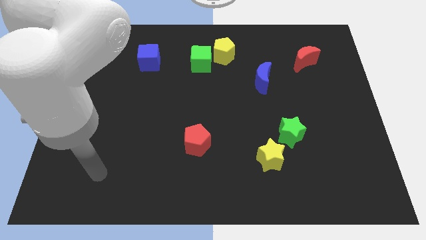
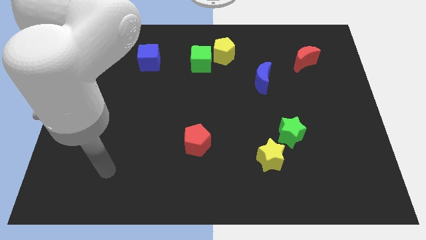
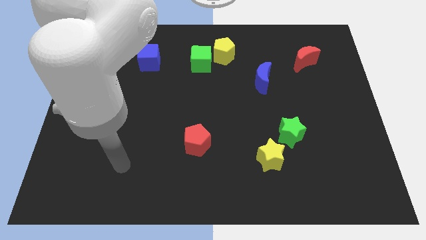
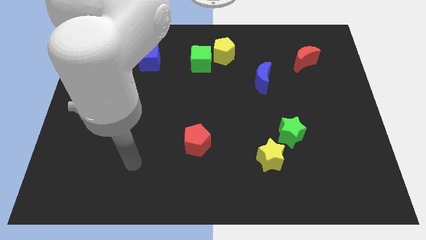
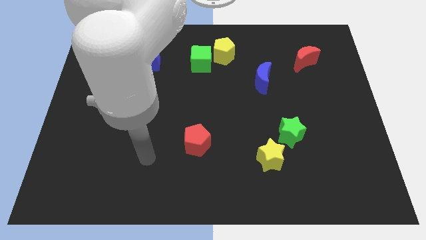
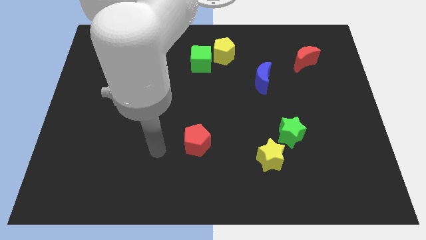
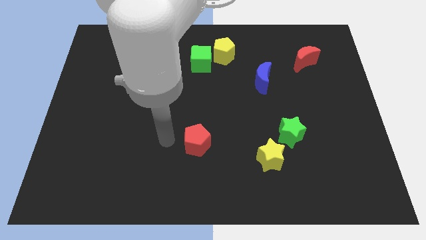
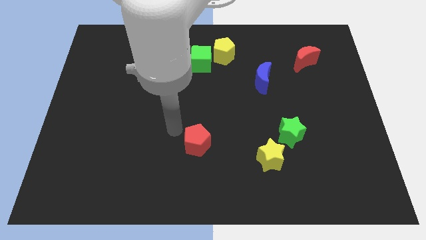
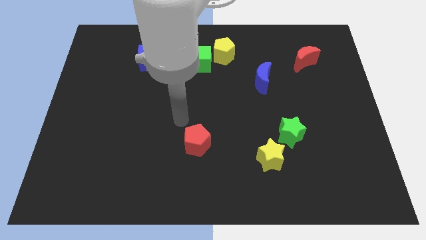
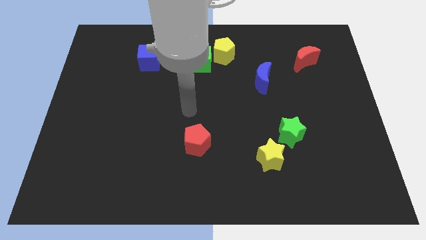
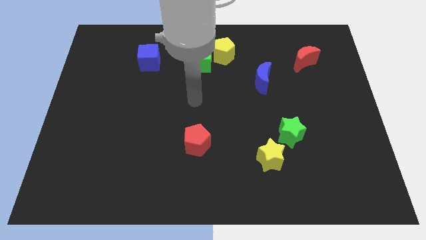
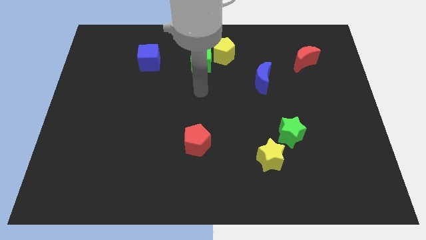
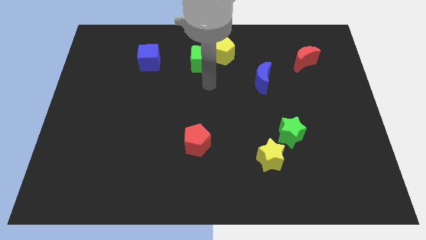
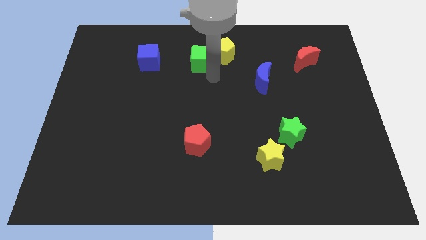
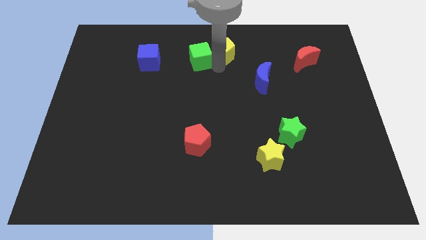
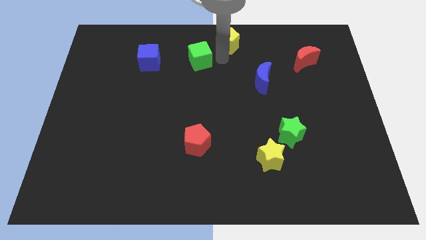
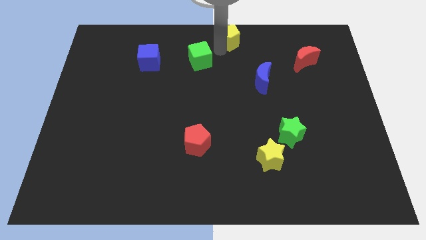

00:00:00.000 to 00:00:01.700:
pull the green cube apart from the yellow pentagon

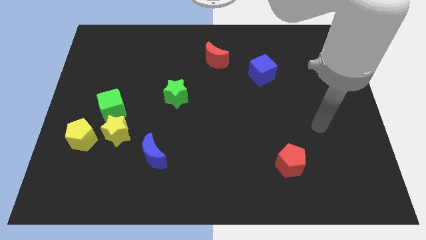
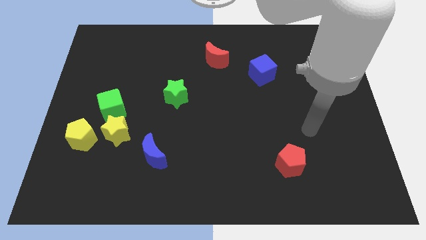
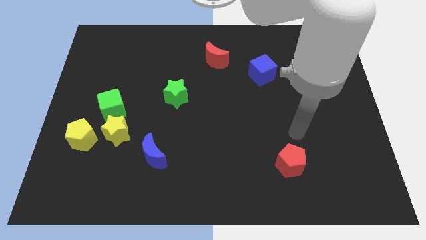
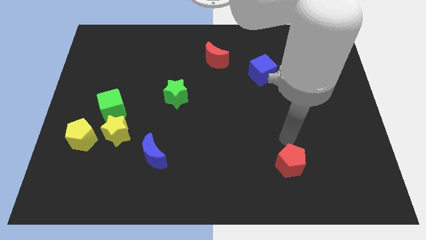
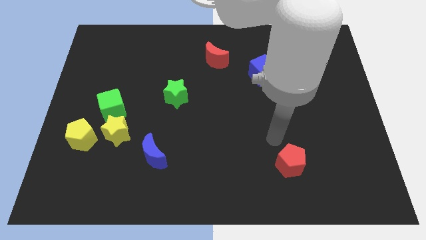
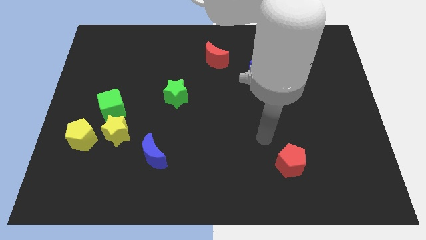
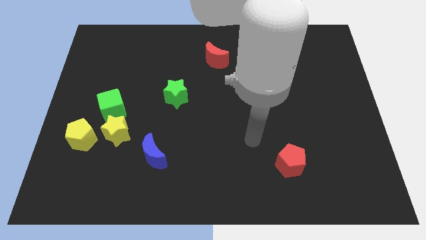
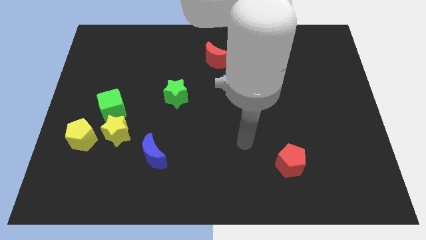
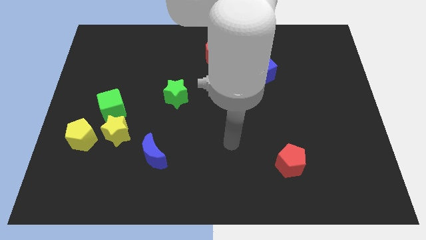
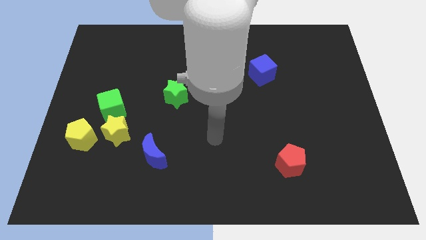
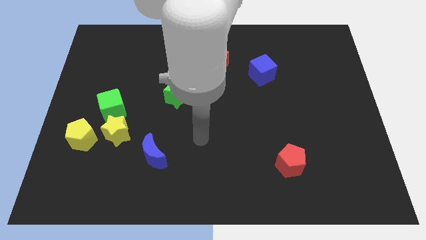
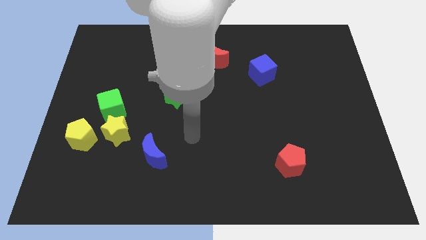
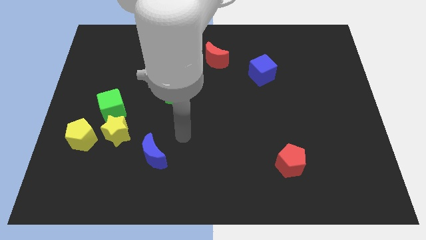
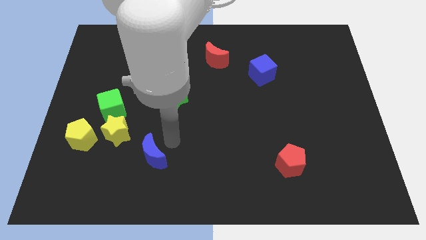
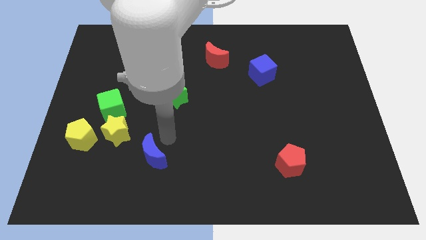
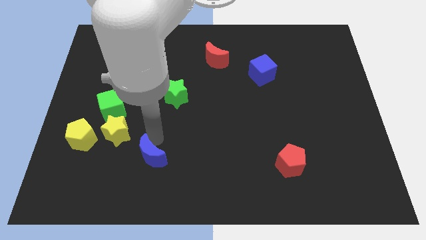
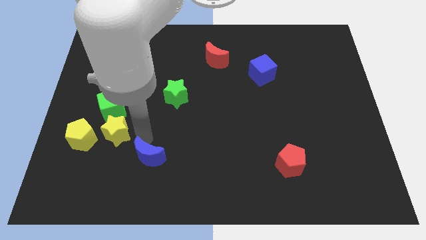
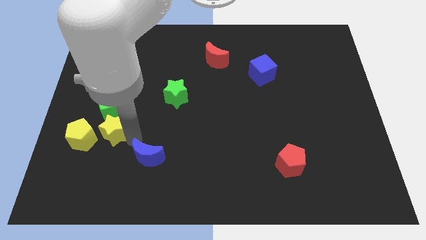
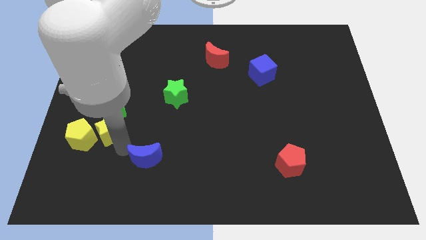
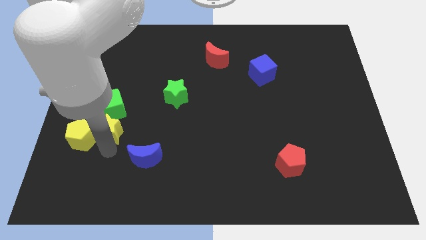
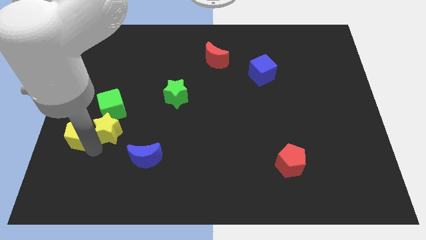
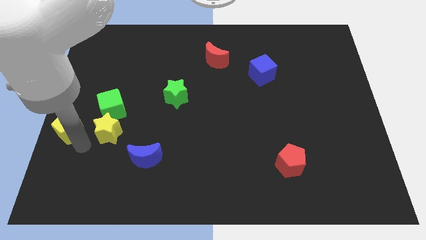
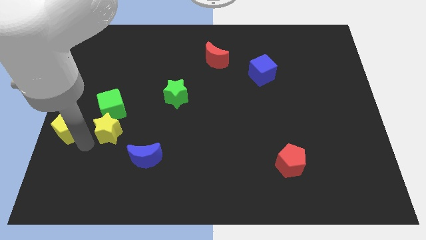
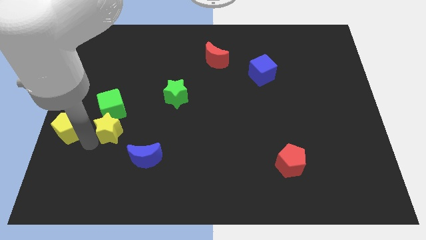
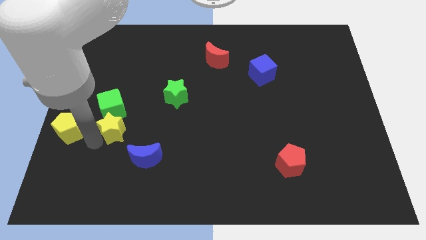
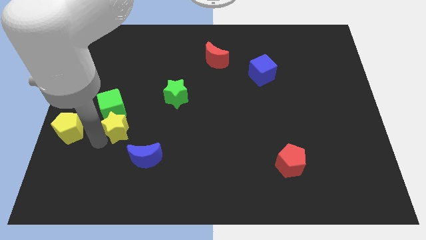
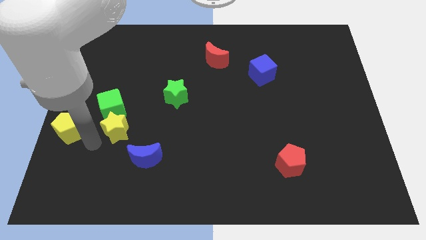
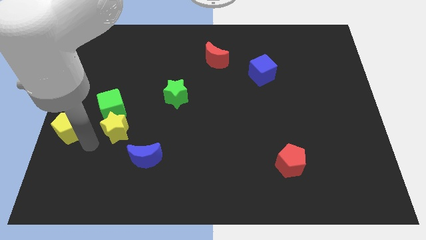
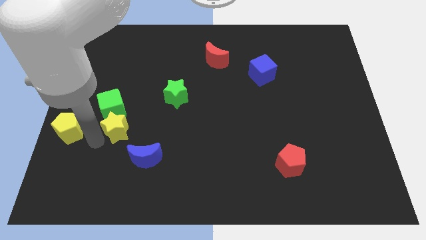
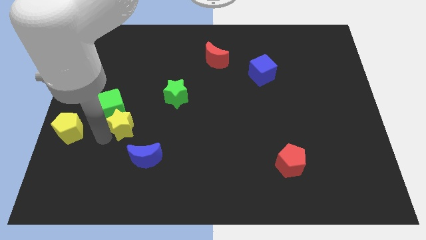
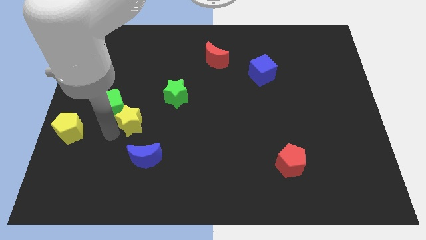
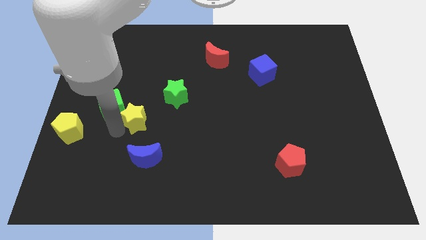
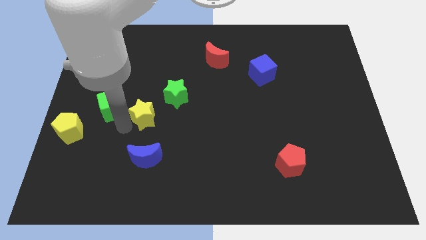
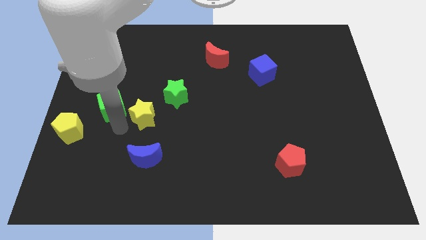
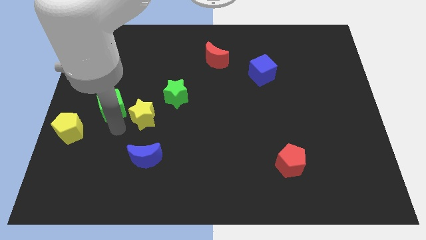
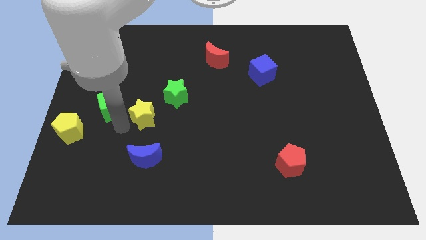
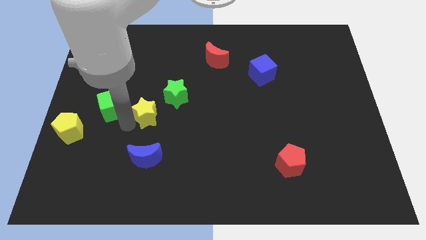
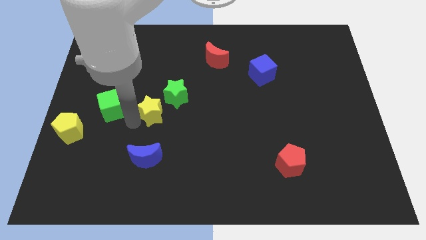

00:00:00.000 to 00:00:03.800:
move the yellow star away from the group

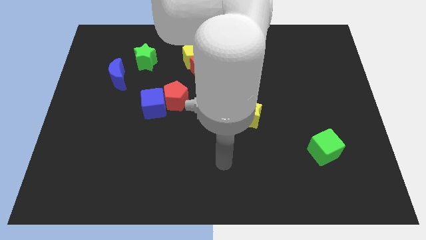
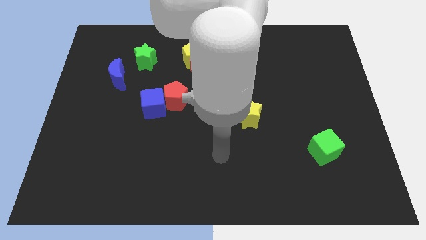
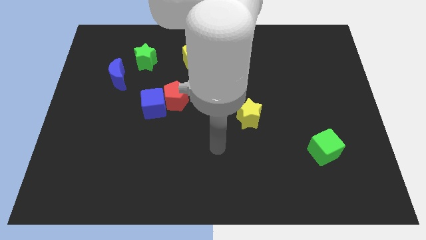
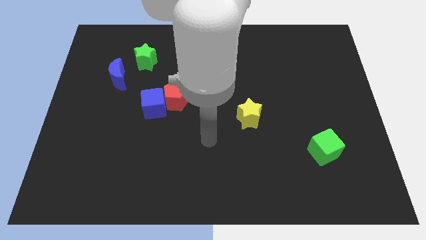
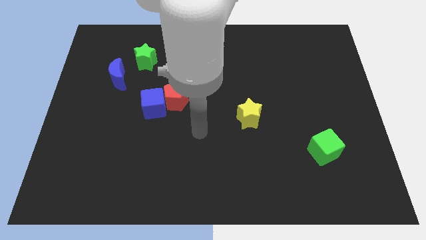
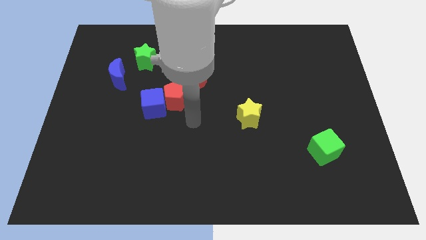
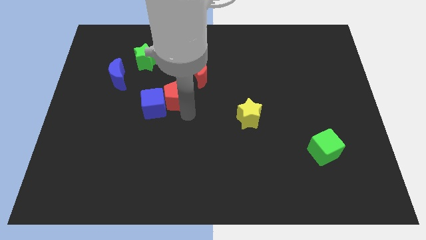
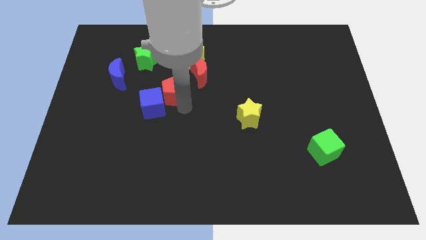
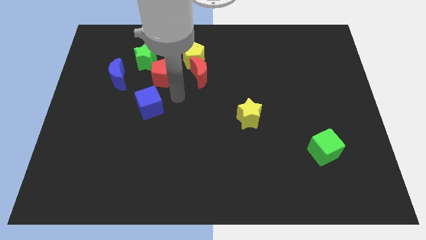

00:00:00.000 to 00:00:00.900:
separate the blue cube from the red pentagon

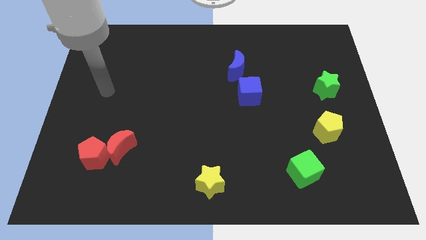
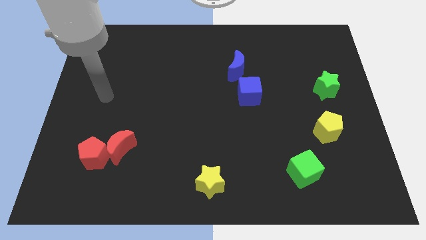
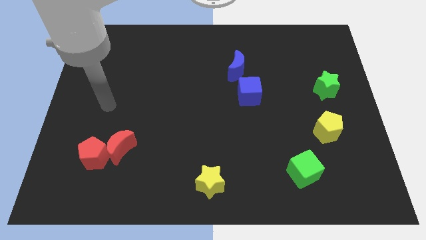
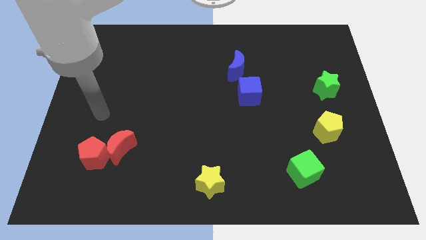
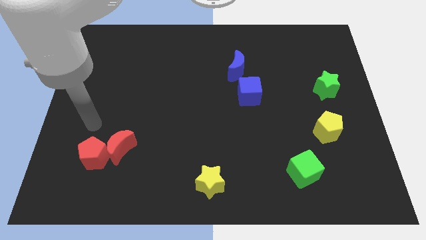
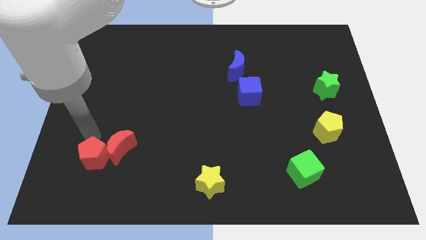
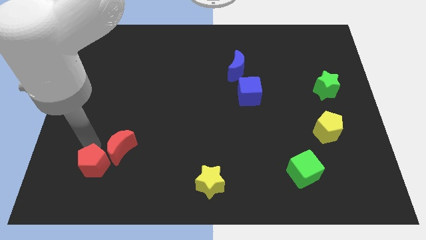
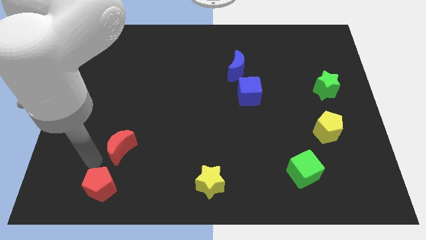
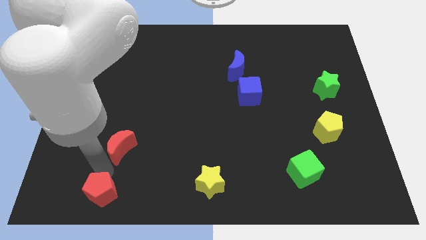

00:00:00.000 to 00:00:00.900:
separate the red moon from the red pentagon

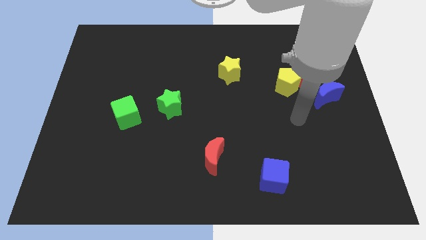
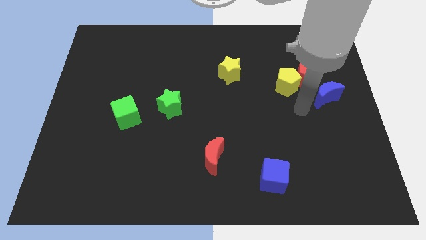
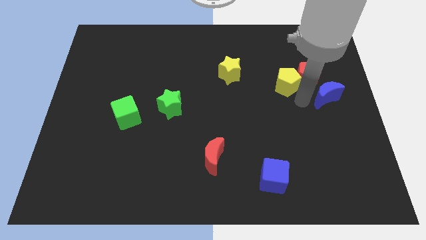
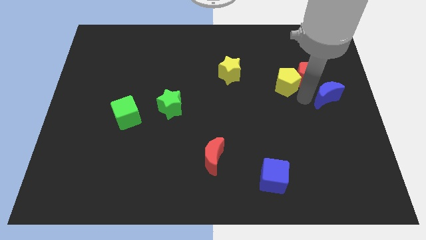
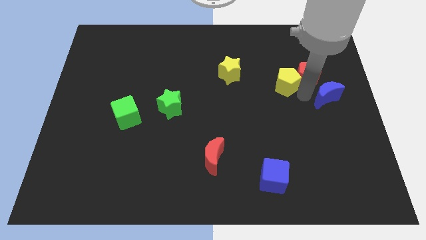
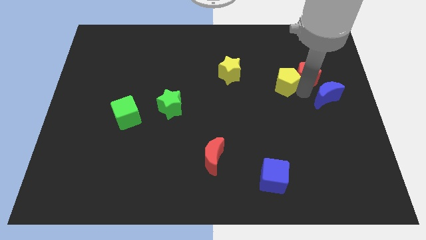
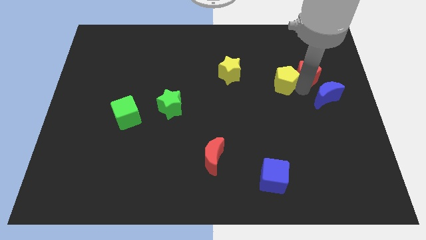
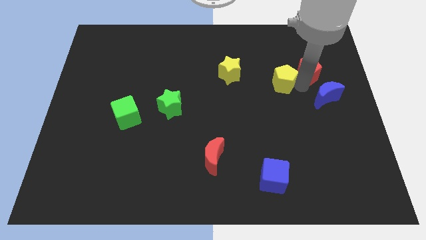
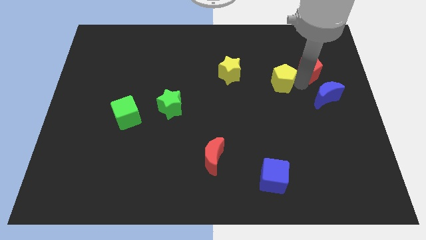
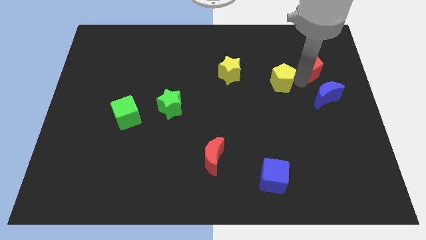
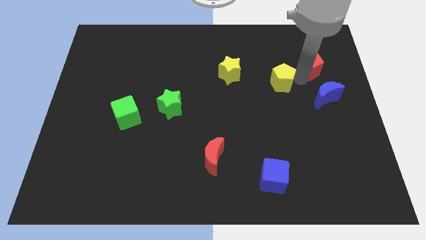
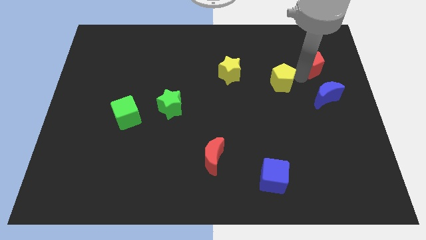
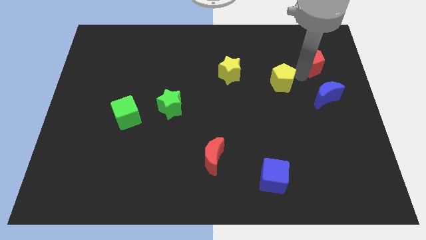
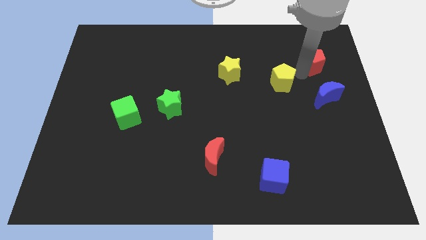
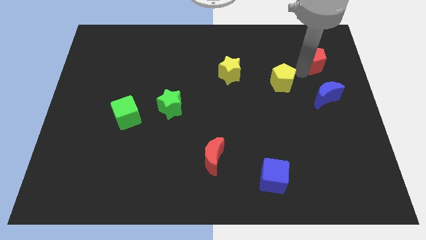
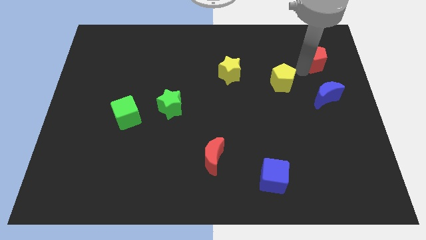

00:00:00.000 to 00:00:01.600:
separate the red pentagon from the yellow pentagon and blue moon

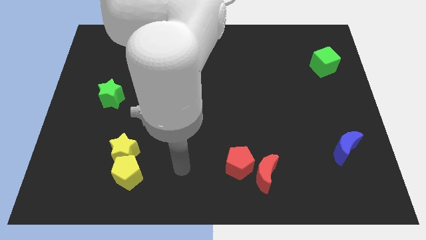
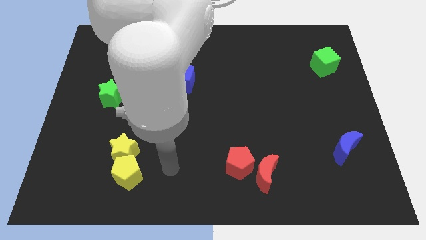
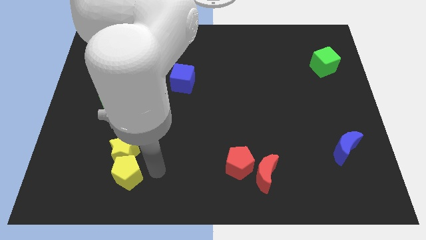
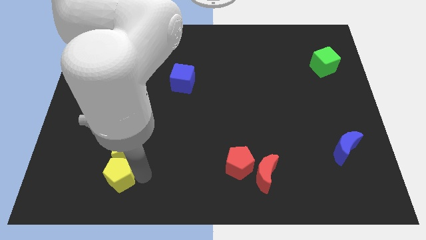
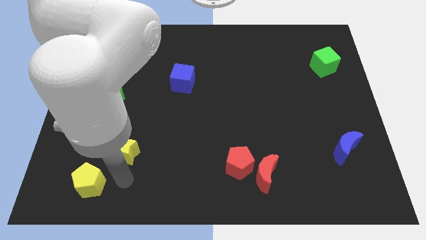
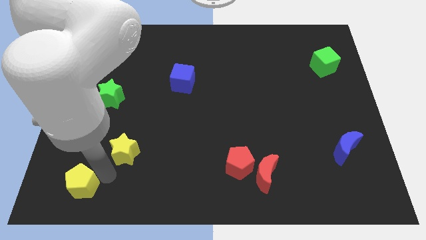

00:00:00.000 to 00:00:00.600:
move the yellow star away from the yellow pentagon
